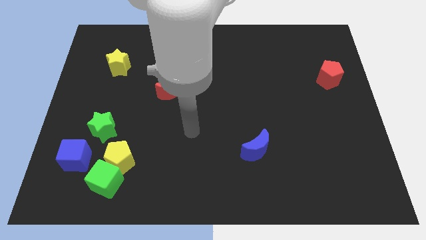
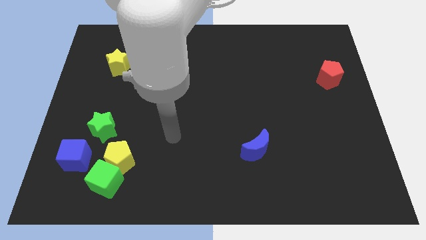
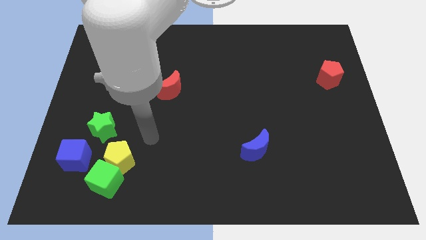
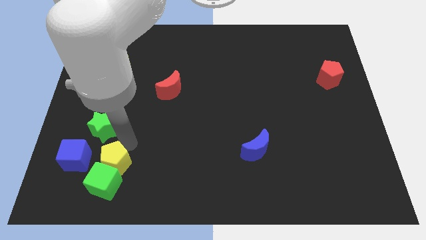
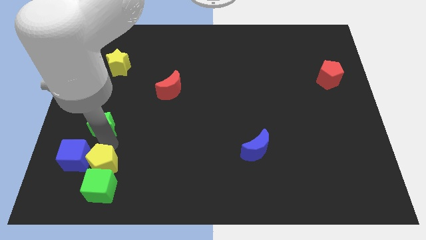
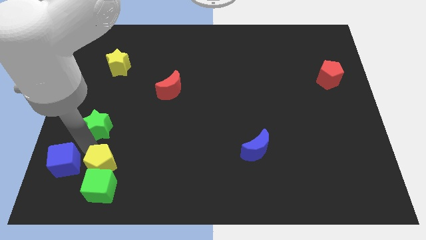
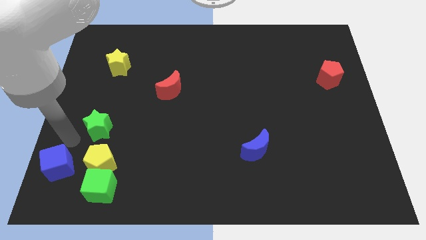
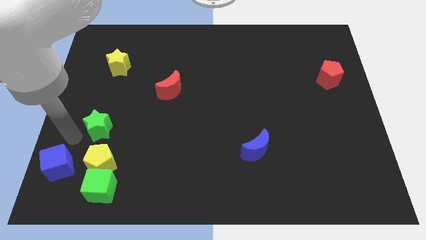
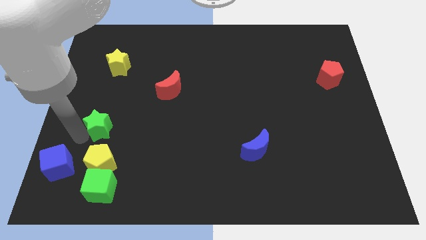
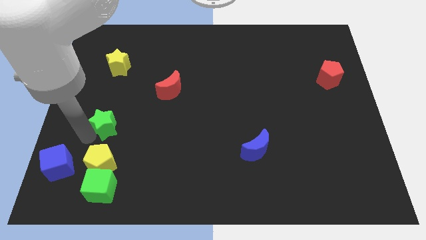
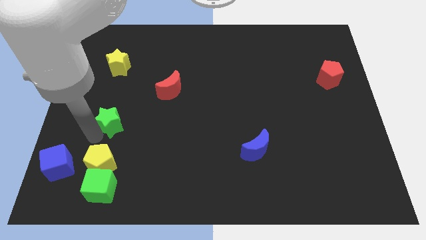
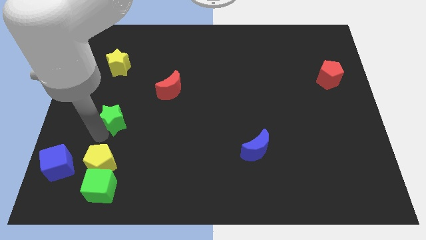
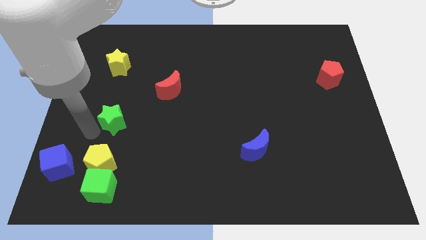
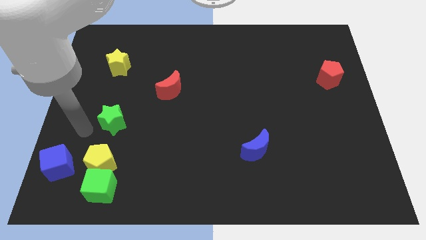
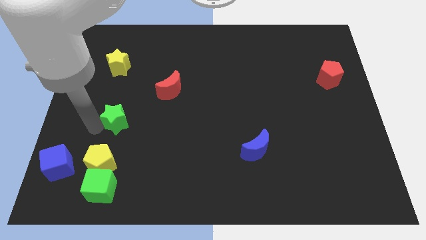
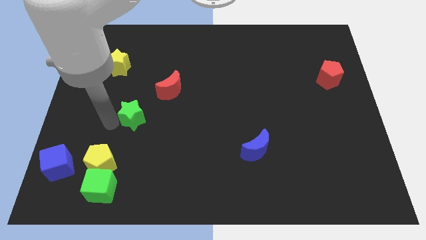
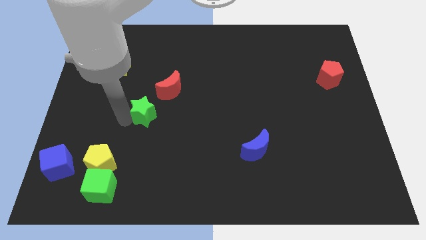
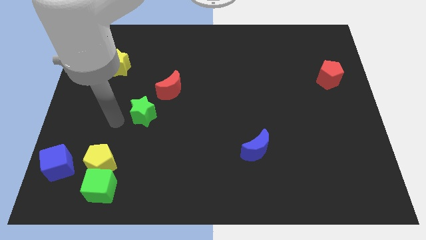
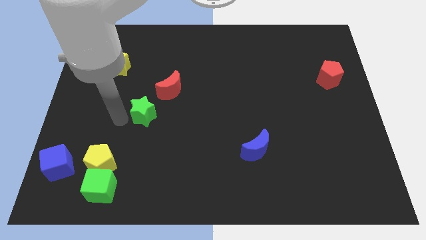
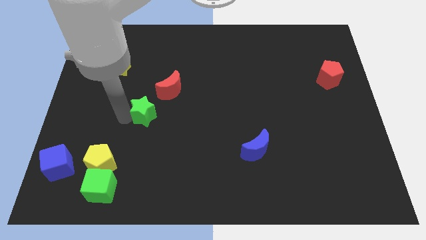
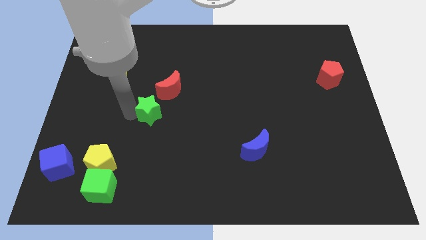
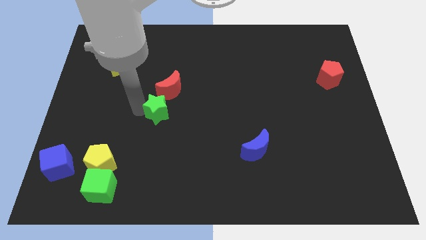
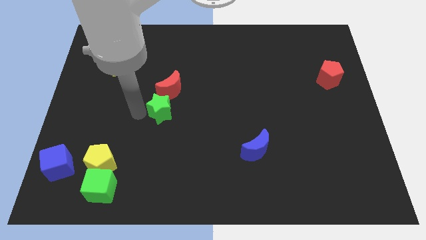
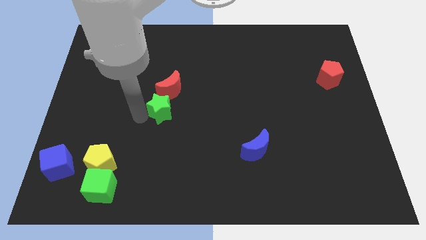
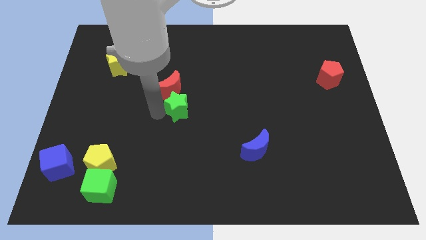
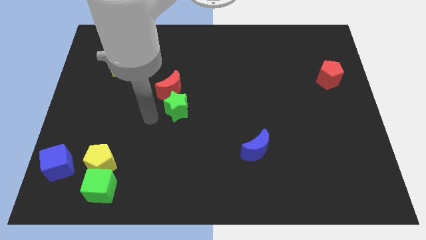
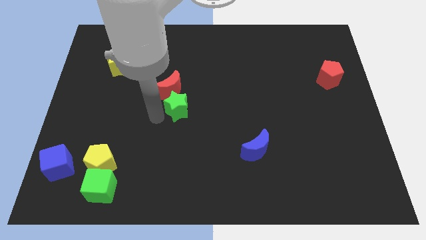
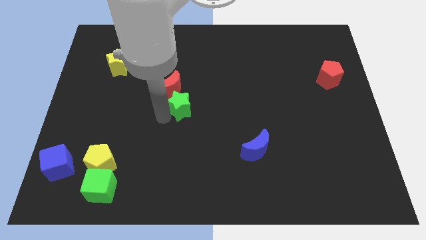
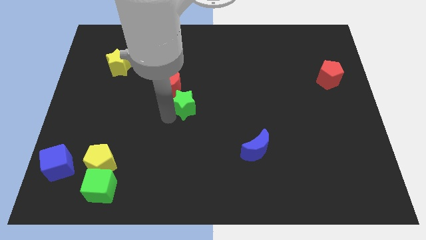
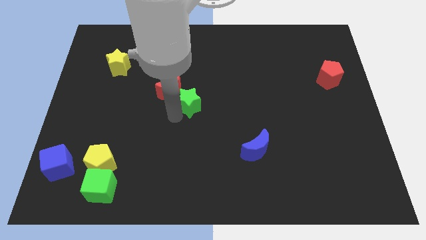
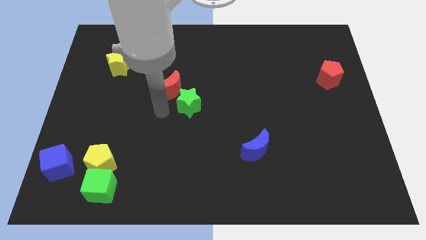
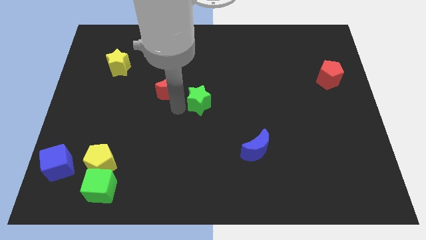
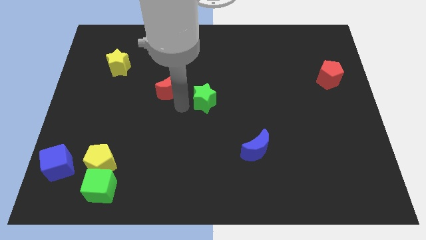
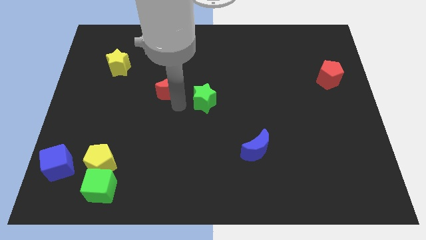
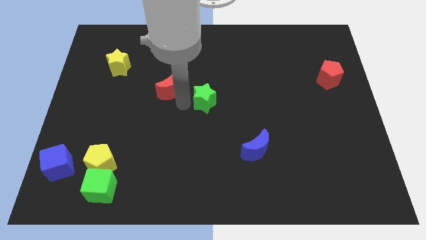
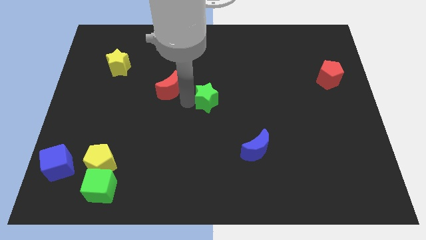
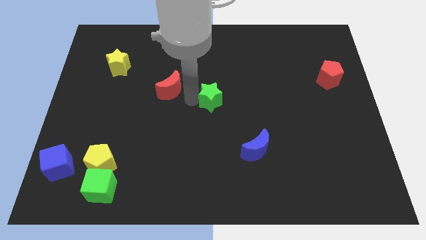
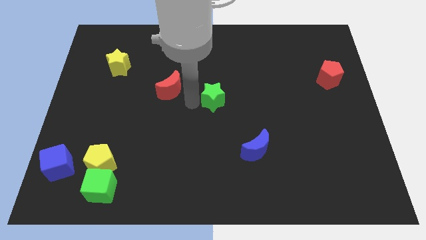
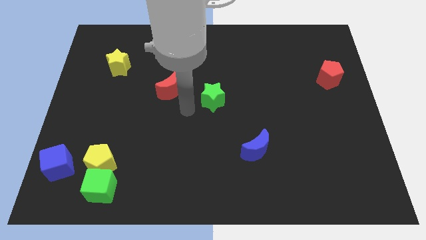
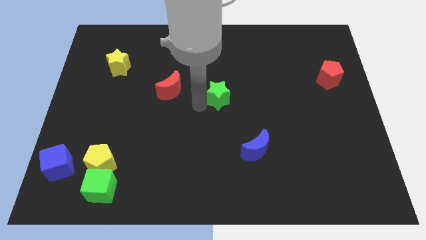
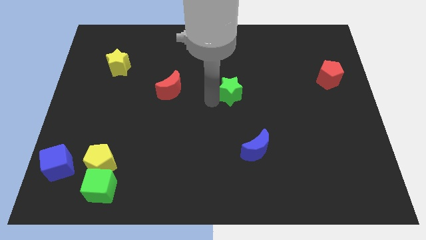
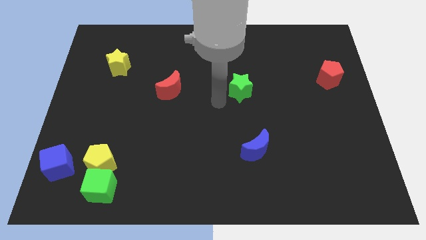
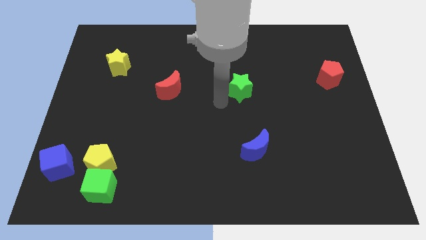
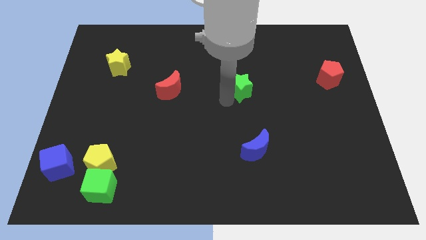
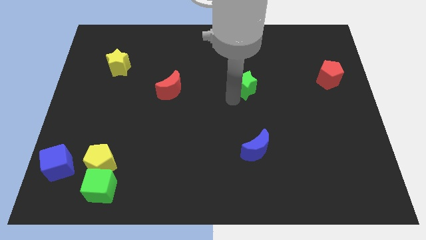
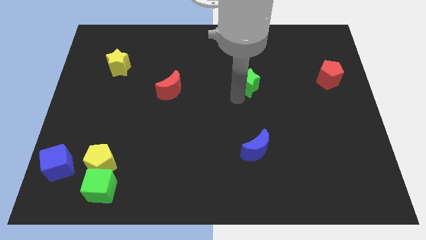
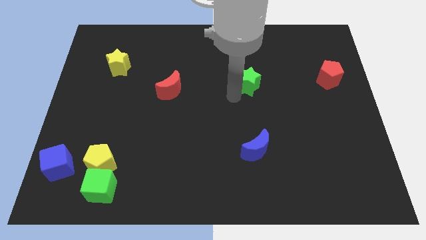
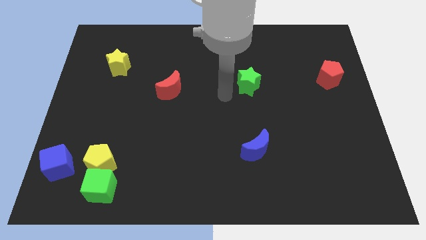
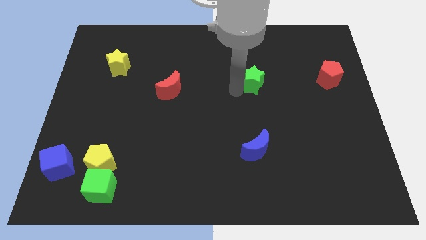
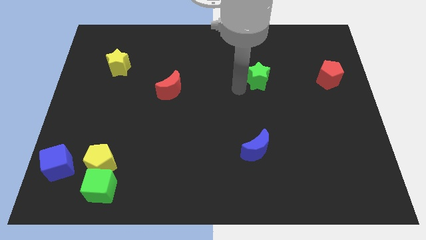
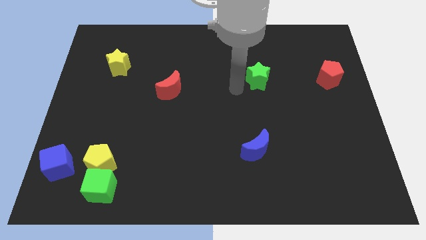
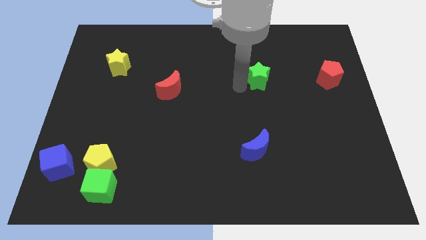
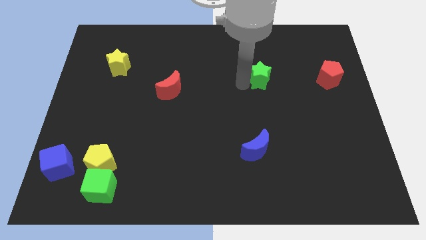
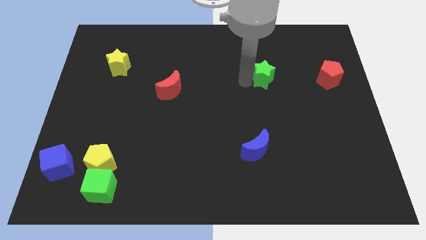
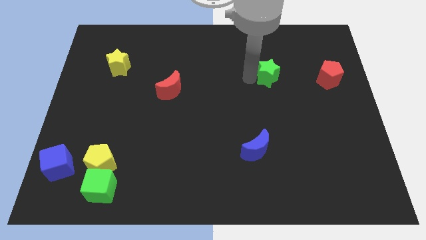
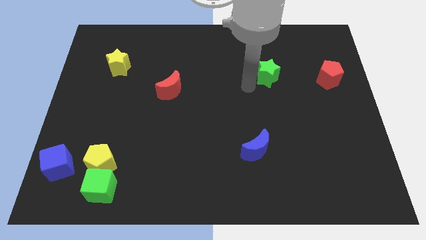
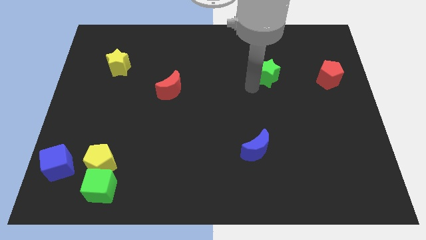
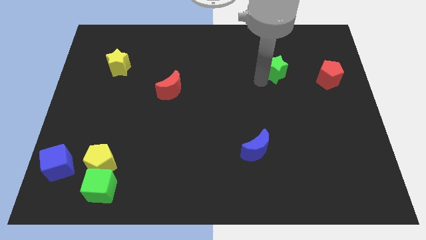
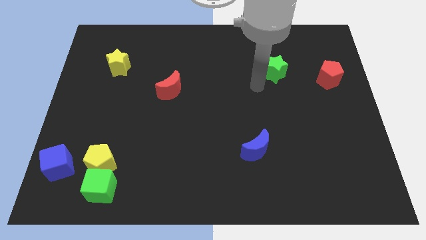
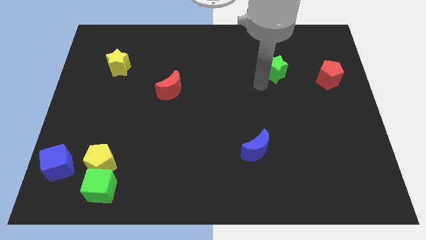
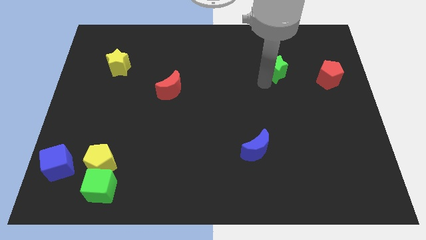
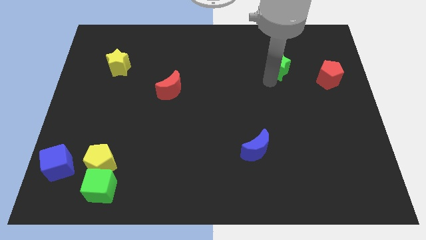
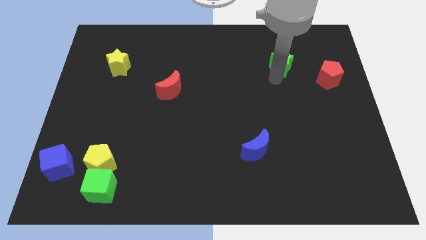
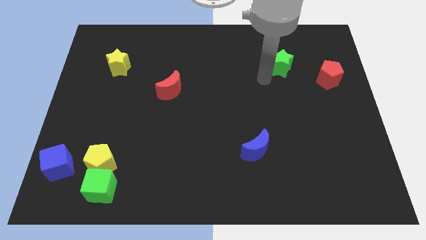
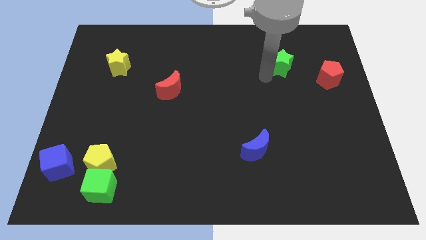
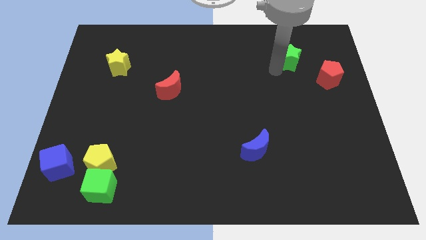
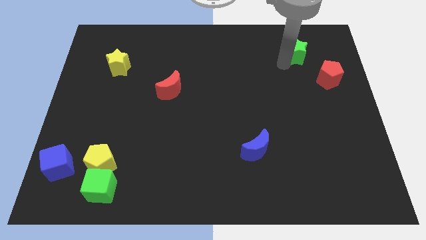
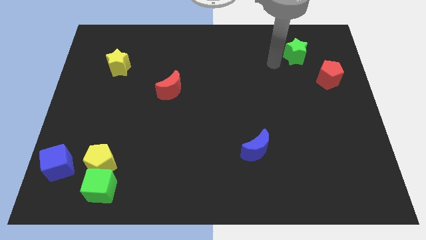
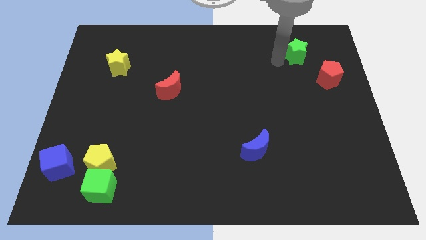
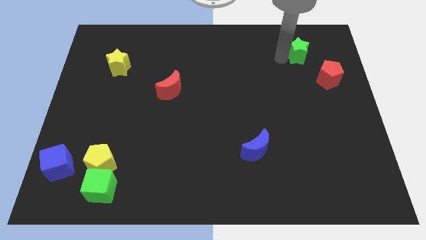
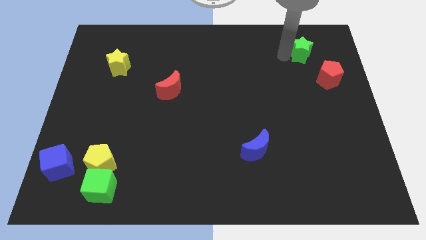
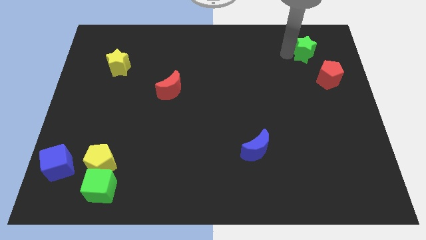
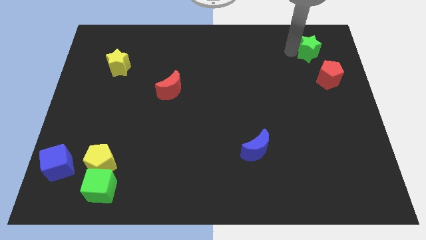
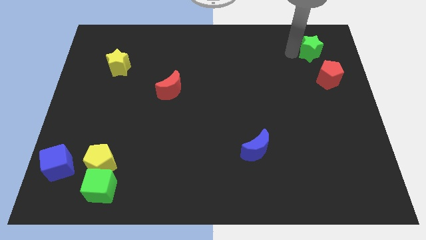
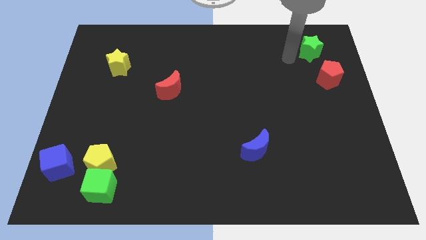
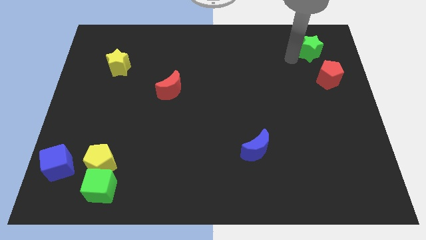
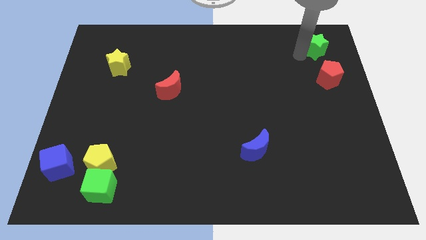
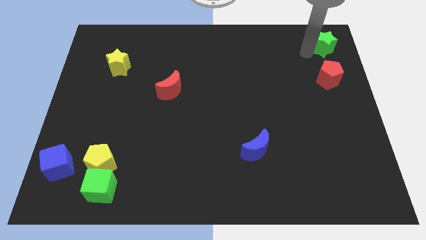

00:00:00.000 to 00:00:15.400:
slide the green star to the top right corner
